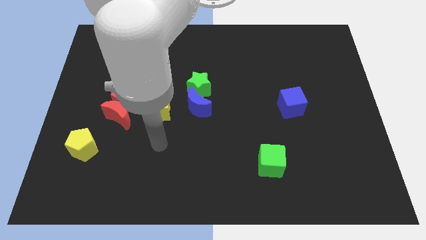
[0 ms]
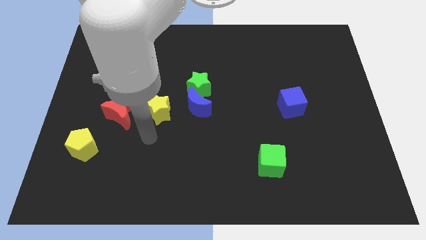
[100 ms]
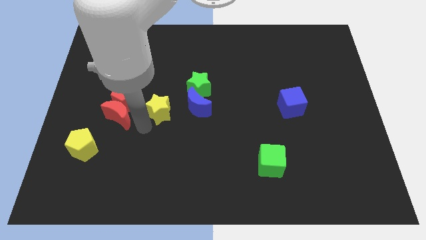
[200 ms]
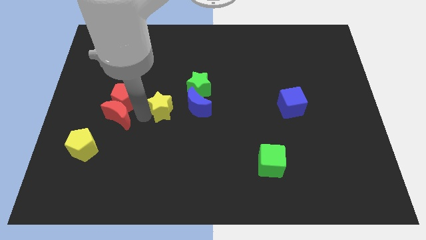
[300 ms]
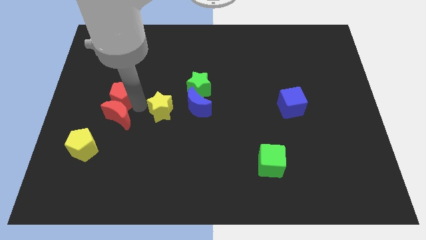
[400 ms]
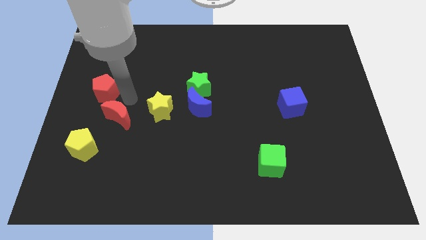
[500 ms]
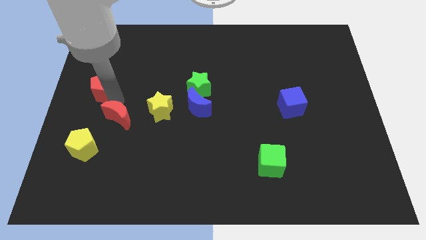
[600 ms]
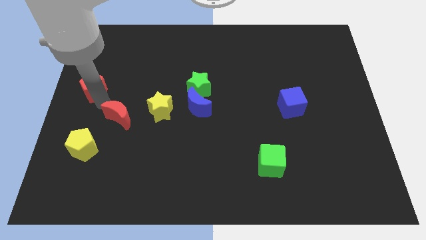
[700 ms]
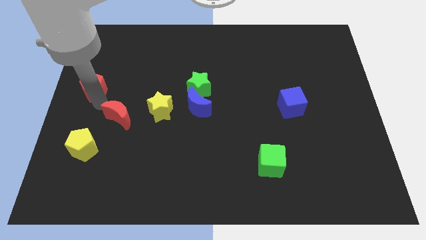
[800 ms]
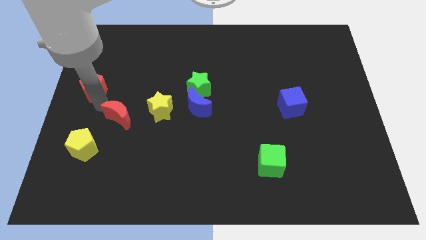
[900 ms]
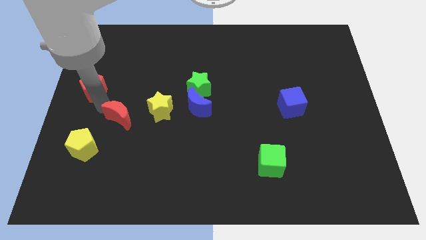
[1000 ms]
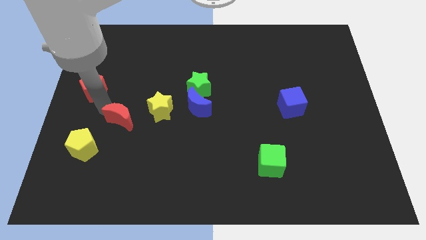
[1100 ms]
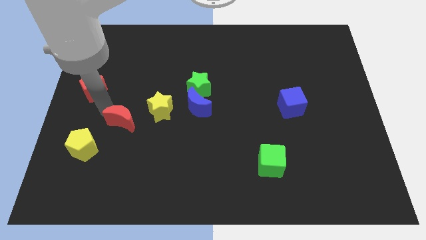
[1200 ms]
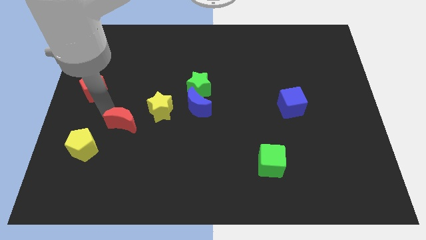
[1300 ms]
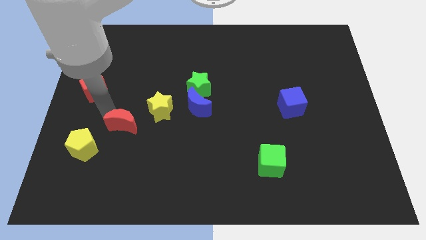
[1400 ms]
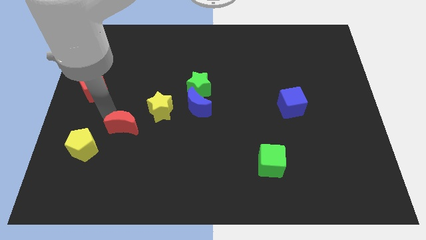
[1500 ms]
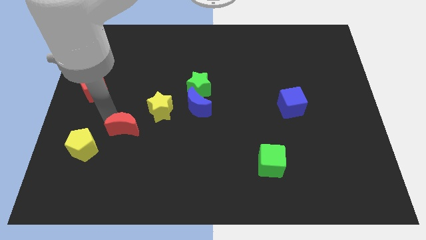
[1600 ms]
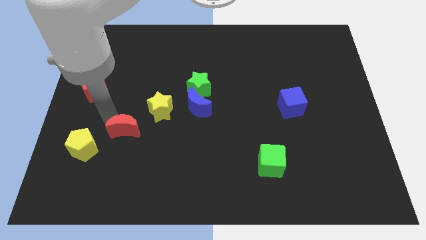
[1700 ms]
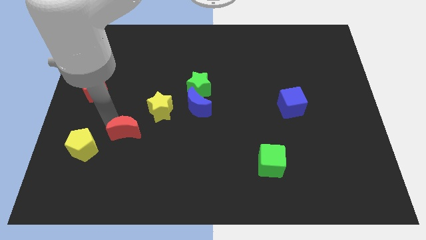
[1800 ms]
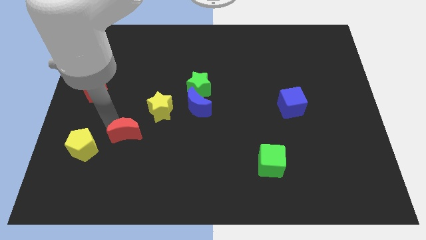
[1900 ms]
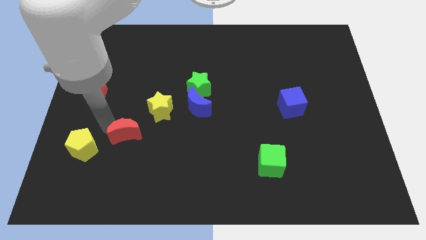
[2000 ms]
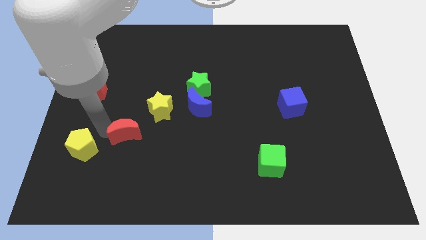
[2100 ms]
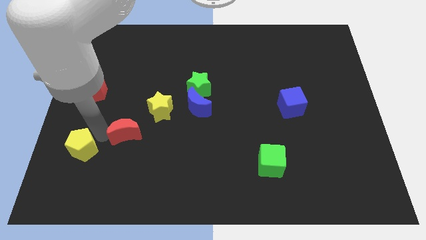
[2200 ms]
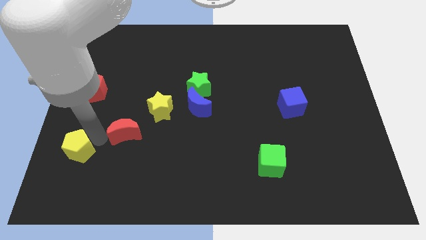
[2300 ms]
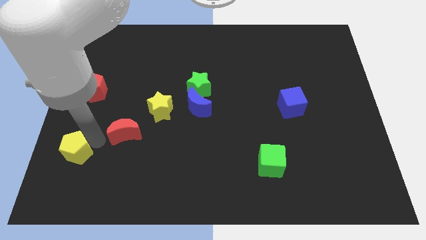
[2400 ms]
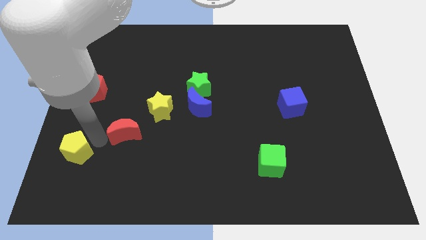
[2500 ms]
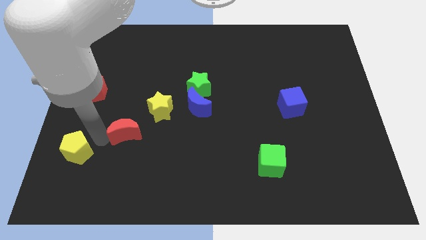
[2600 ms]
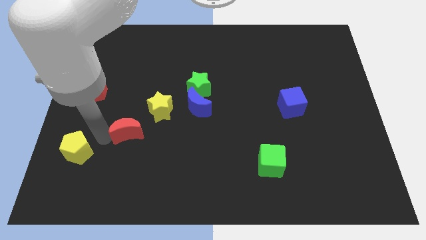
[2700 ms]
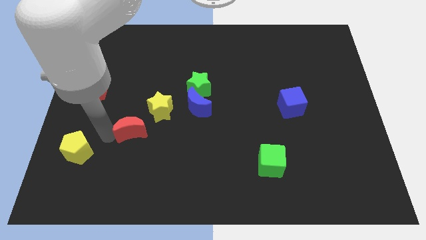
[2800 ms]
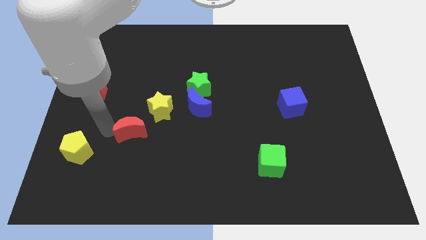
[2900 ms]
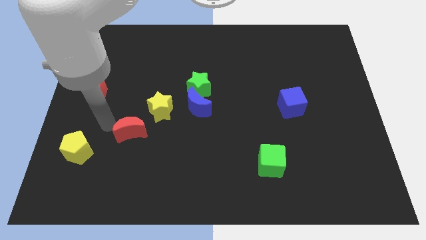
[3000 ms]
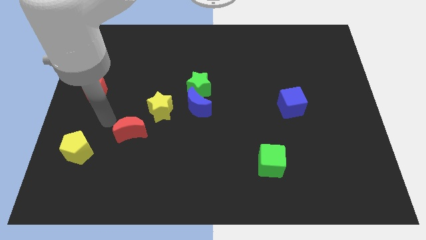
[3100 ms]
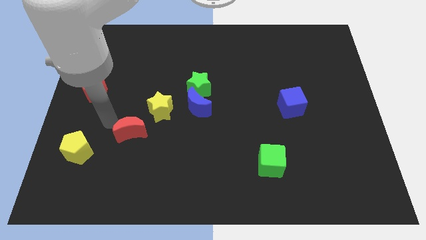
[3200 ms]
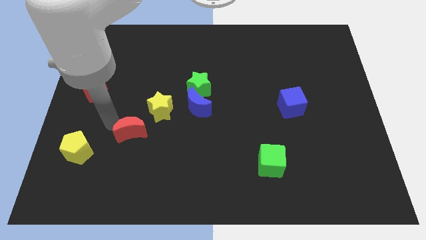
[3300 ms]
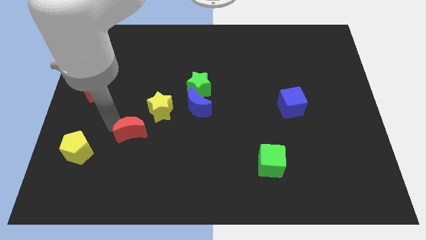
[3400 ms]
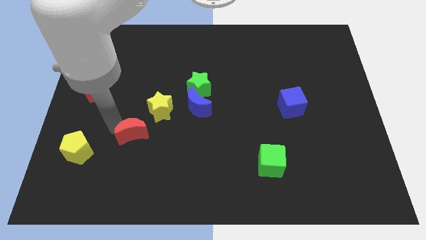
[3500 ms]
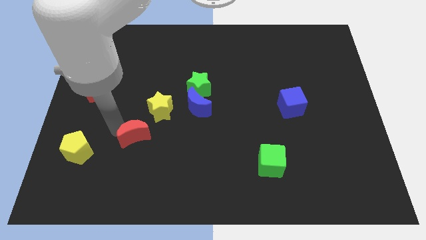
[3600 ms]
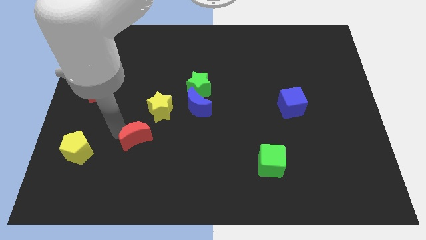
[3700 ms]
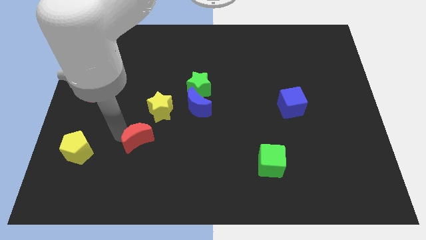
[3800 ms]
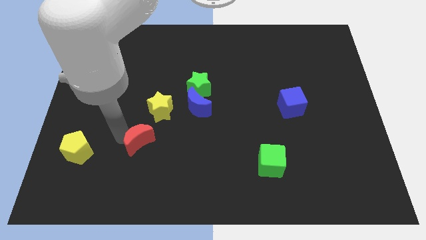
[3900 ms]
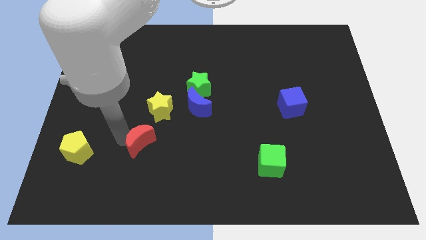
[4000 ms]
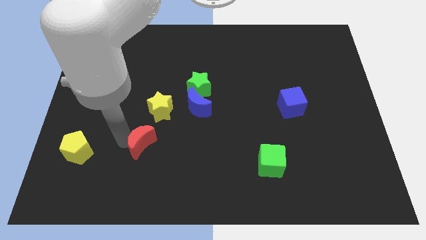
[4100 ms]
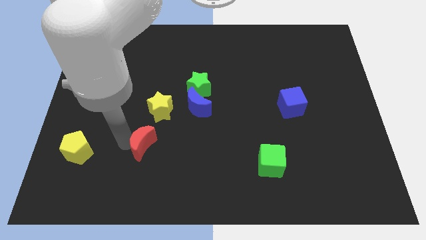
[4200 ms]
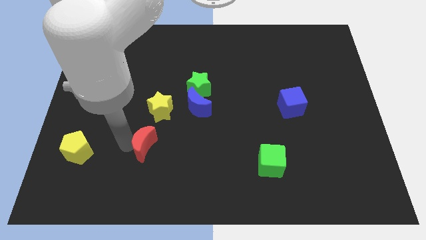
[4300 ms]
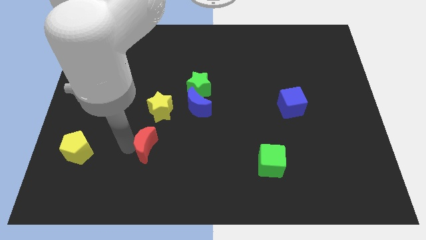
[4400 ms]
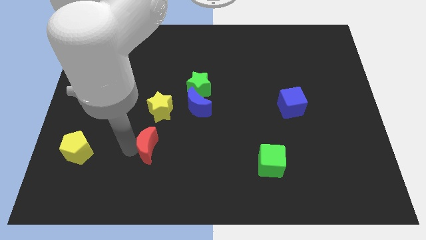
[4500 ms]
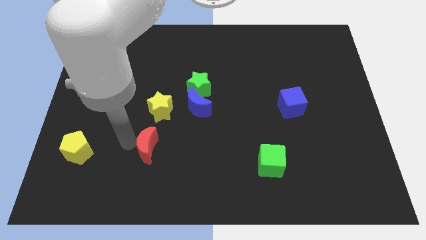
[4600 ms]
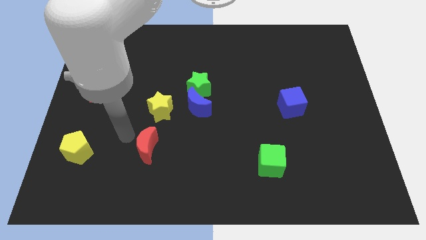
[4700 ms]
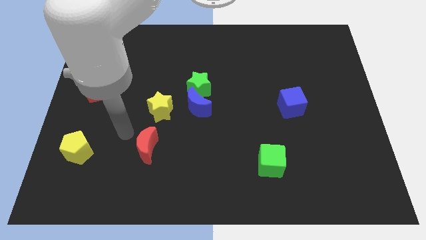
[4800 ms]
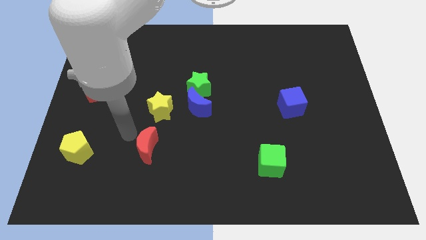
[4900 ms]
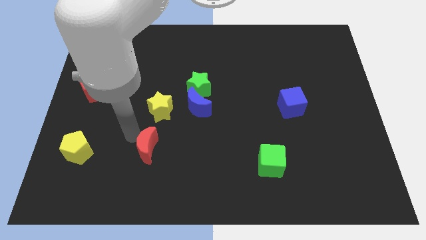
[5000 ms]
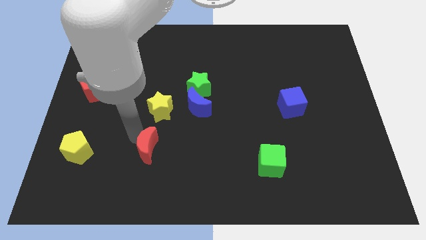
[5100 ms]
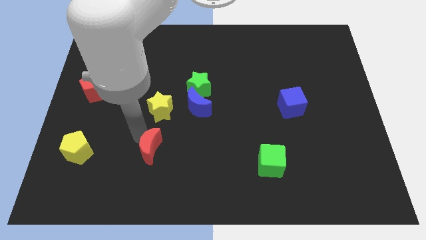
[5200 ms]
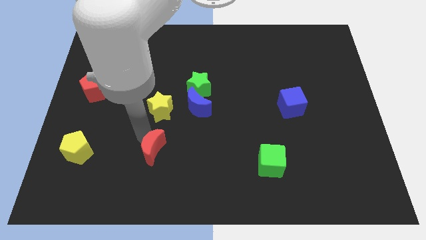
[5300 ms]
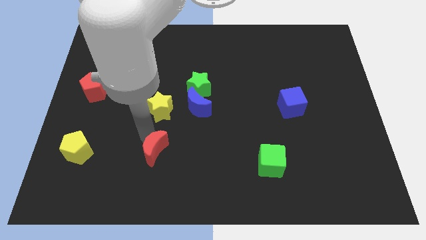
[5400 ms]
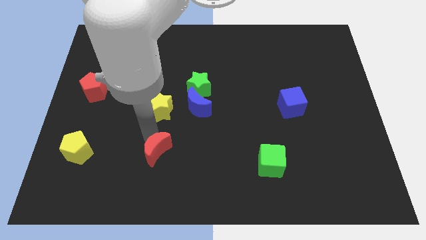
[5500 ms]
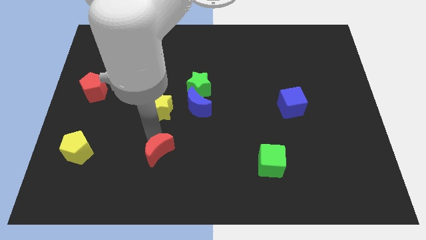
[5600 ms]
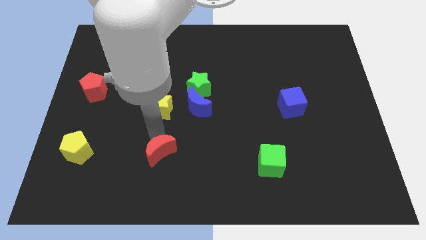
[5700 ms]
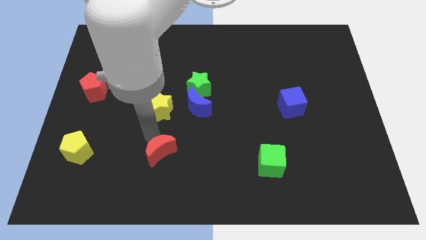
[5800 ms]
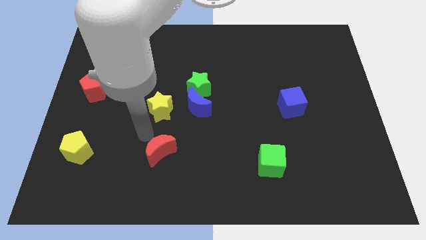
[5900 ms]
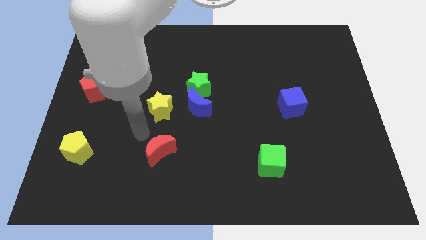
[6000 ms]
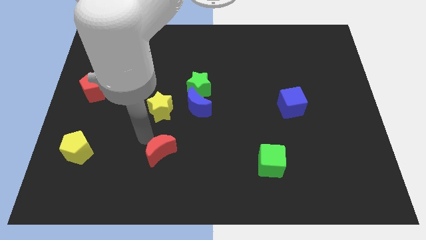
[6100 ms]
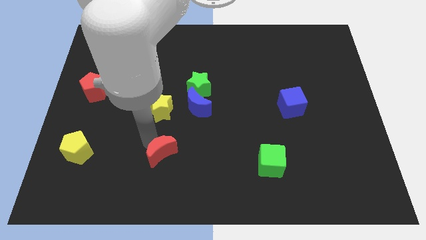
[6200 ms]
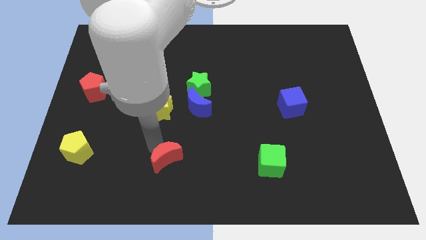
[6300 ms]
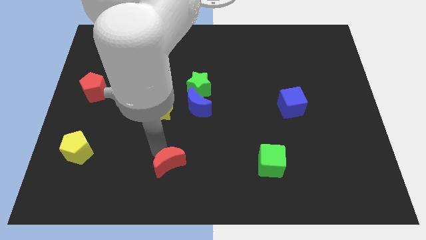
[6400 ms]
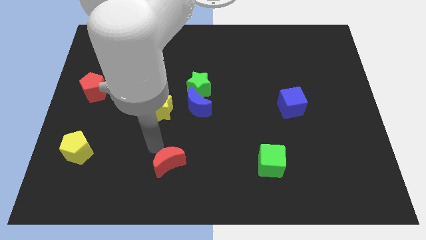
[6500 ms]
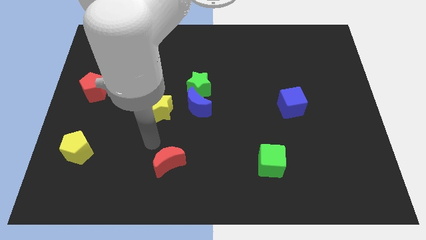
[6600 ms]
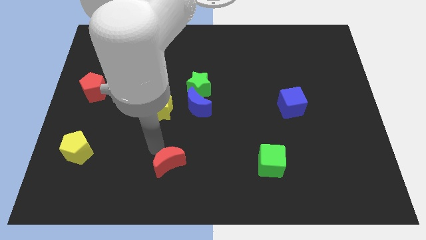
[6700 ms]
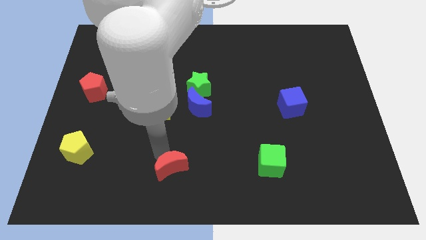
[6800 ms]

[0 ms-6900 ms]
move the red moon to the bottom side
